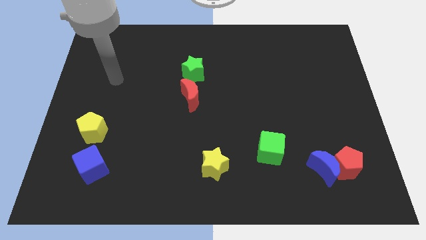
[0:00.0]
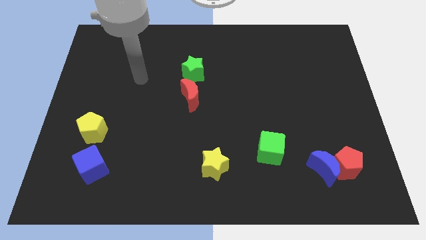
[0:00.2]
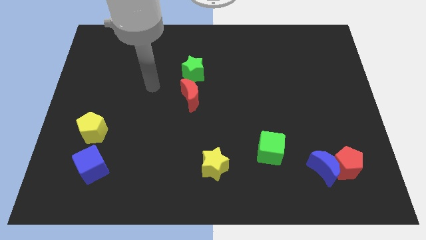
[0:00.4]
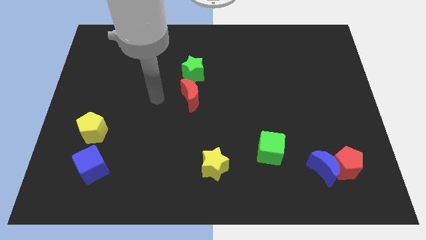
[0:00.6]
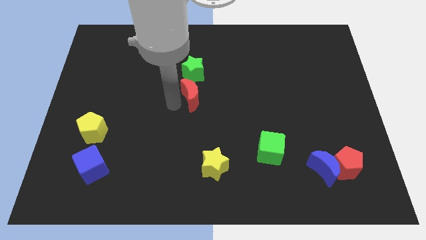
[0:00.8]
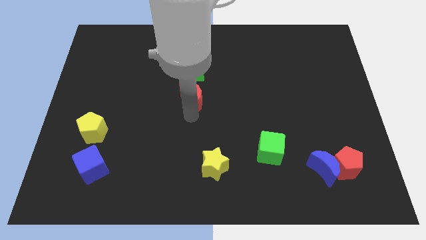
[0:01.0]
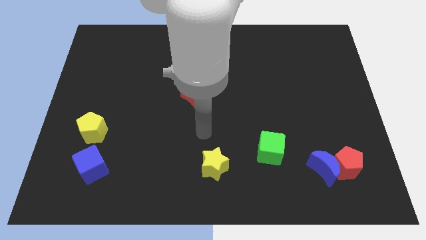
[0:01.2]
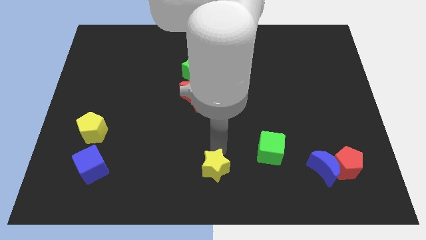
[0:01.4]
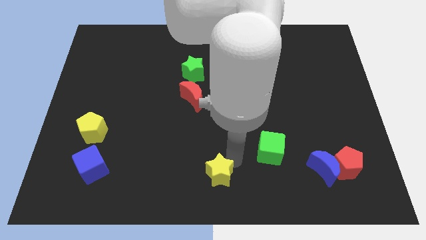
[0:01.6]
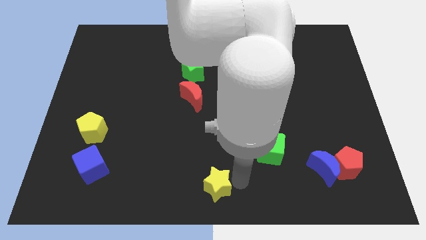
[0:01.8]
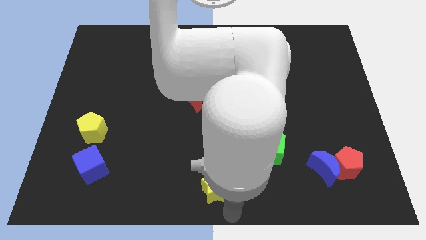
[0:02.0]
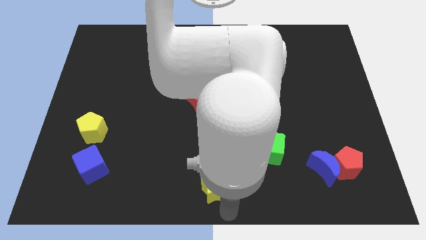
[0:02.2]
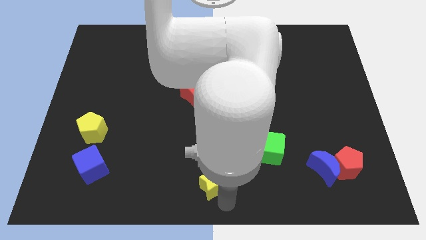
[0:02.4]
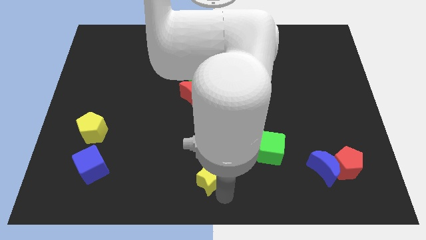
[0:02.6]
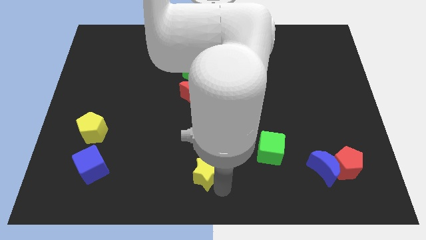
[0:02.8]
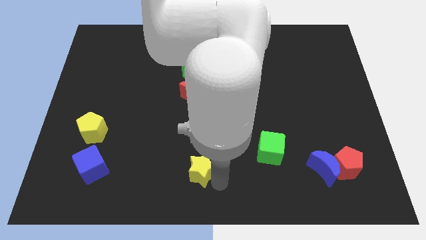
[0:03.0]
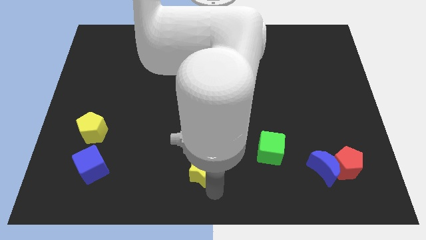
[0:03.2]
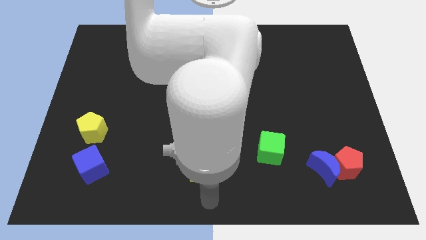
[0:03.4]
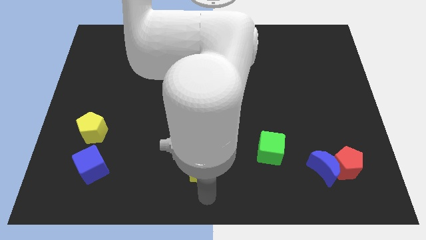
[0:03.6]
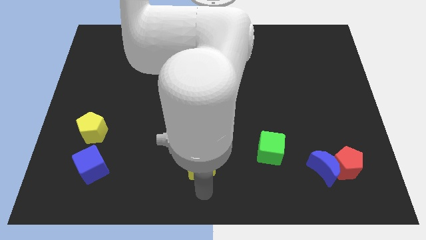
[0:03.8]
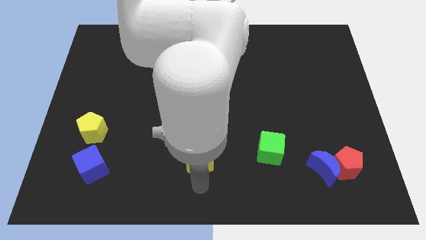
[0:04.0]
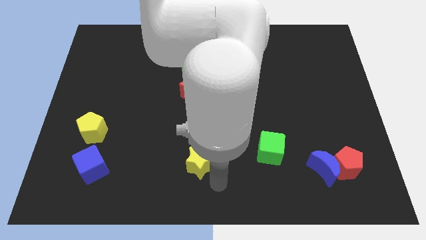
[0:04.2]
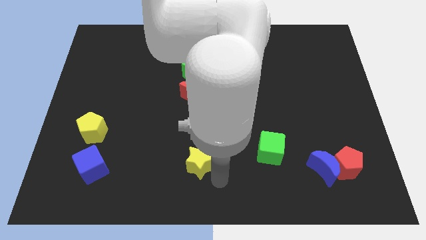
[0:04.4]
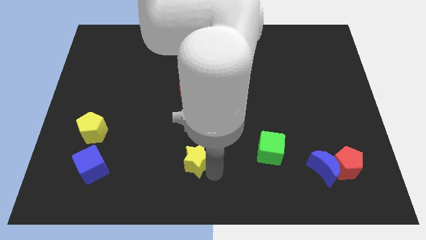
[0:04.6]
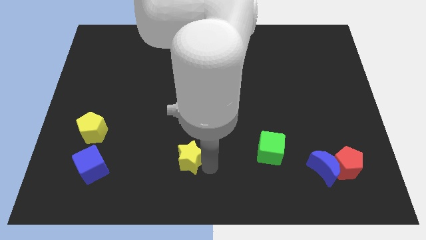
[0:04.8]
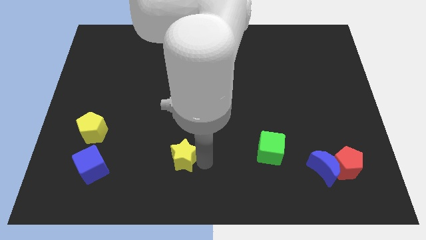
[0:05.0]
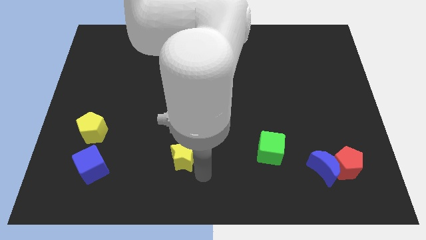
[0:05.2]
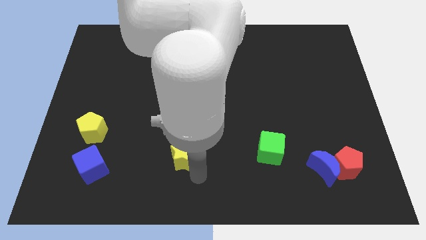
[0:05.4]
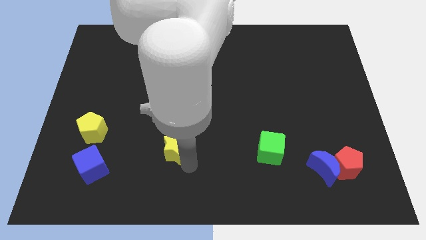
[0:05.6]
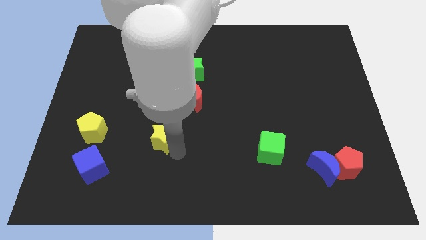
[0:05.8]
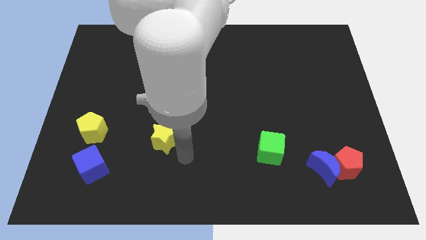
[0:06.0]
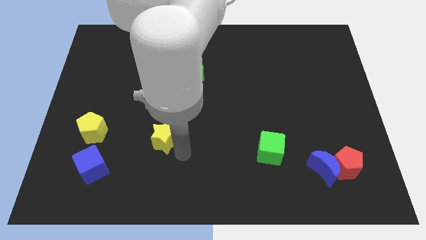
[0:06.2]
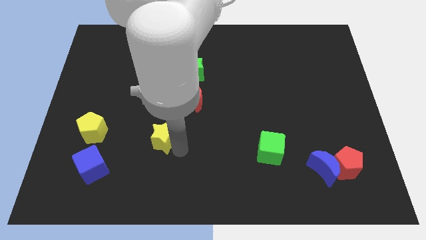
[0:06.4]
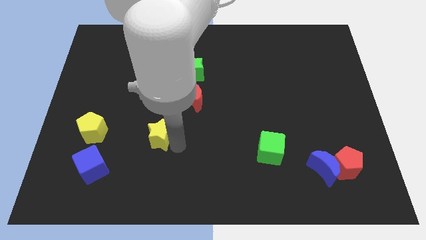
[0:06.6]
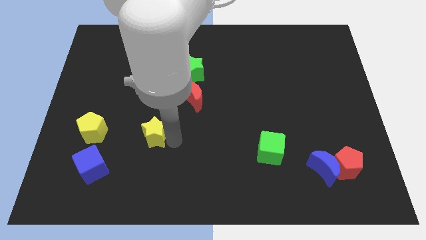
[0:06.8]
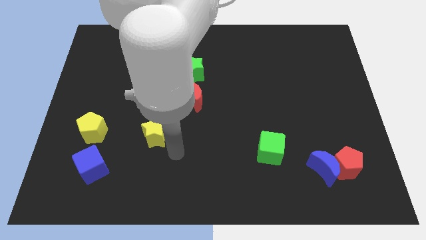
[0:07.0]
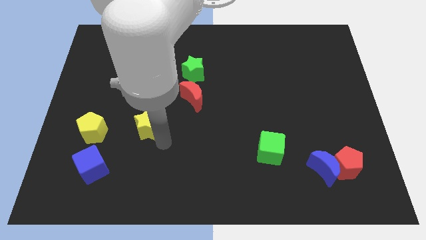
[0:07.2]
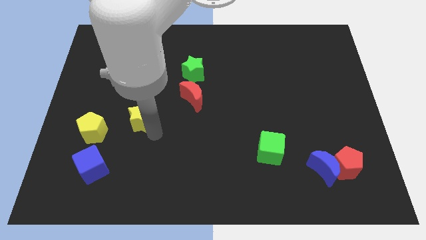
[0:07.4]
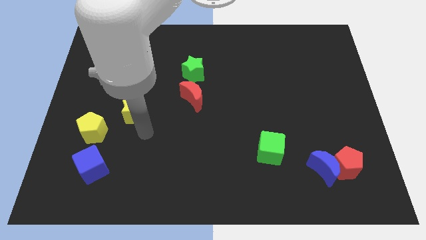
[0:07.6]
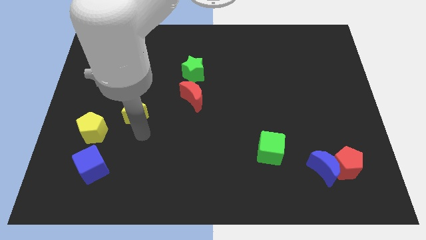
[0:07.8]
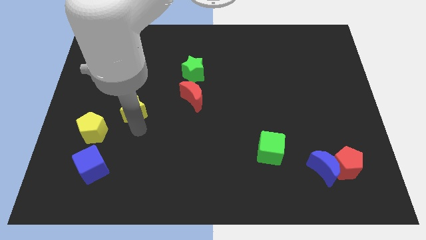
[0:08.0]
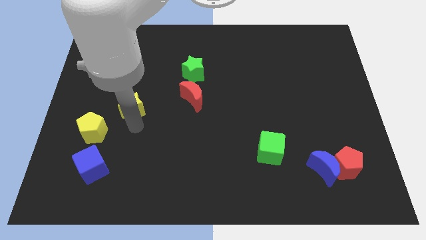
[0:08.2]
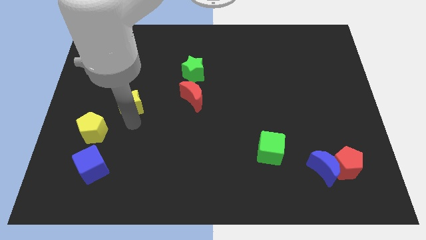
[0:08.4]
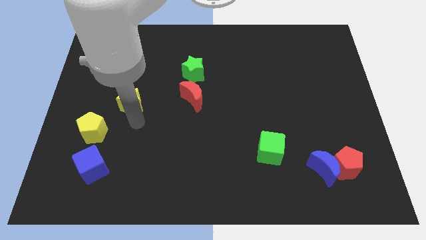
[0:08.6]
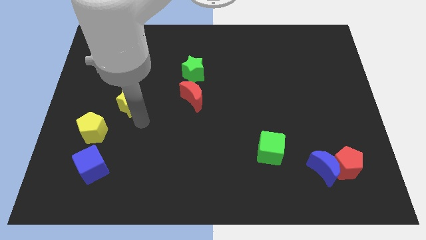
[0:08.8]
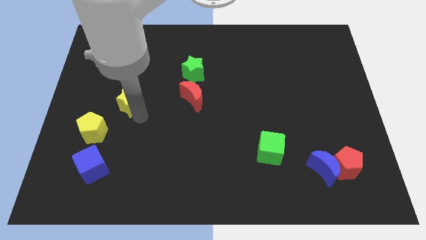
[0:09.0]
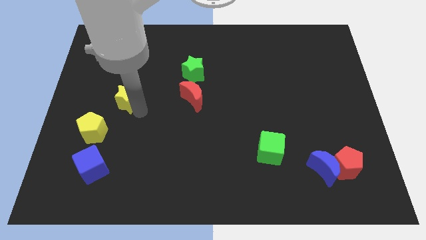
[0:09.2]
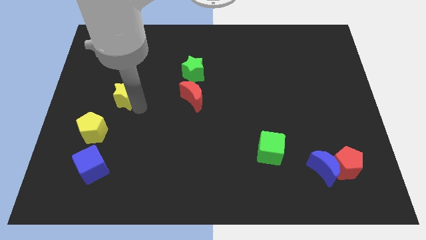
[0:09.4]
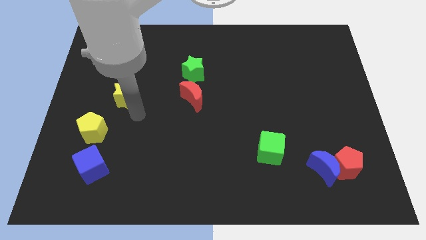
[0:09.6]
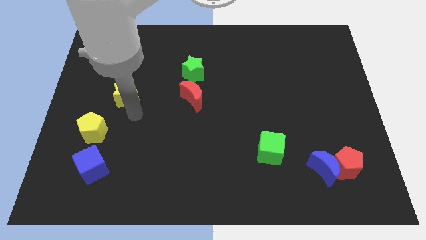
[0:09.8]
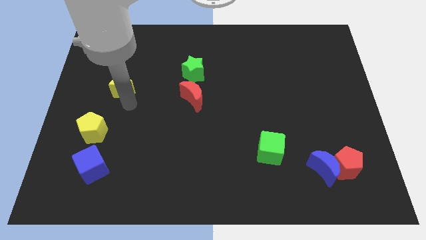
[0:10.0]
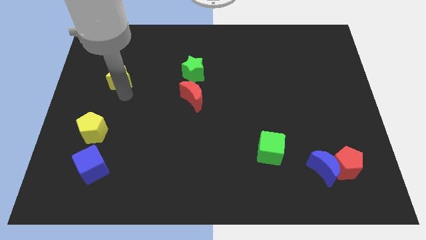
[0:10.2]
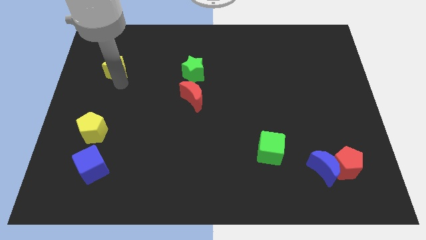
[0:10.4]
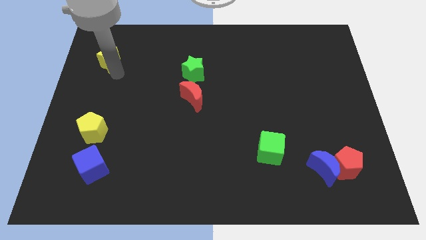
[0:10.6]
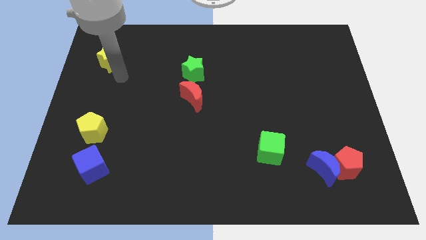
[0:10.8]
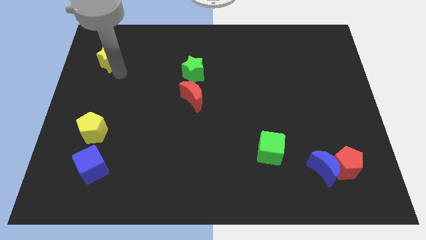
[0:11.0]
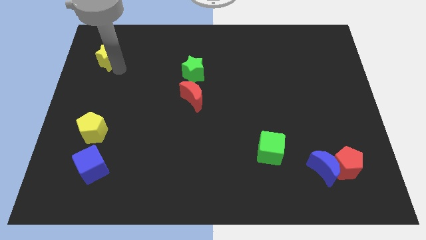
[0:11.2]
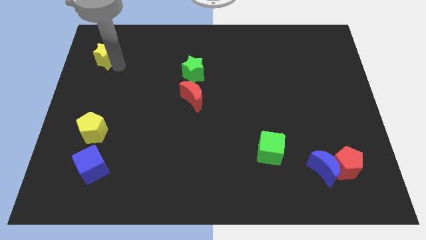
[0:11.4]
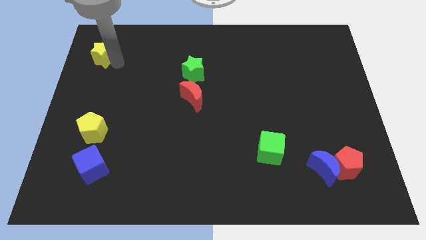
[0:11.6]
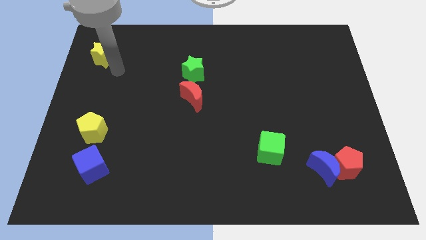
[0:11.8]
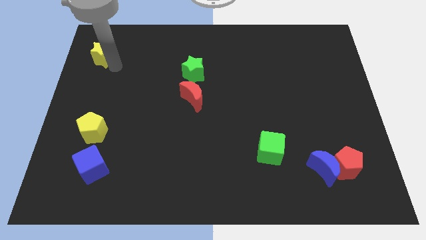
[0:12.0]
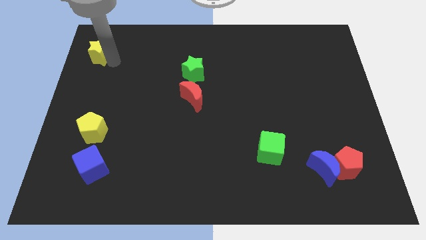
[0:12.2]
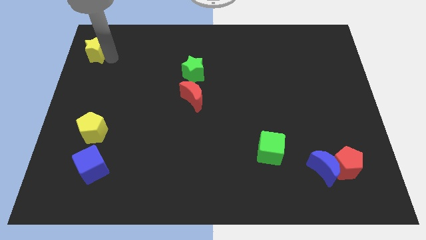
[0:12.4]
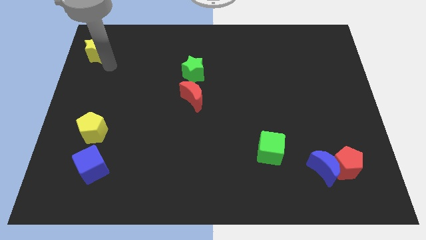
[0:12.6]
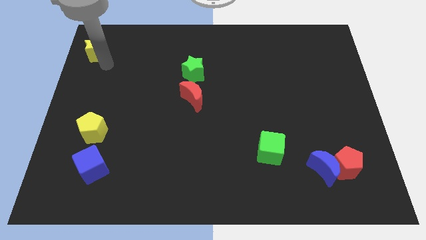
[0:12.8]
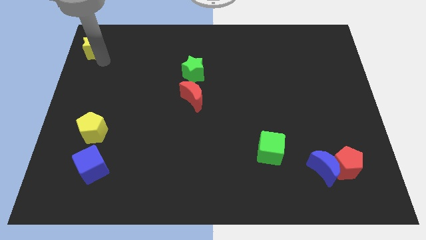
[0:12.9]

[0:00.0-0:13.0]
move the yellow star to the top left of the board
